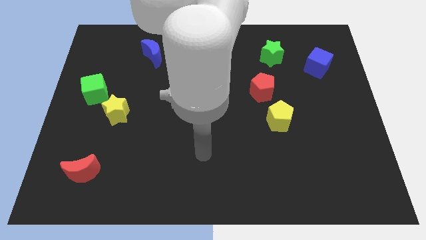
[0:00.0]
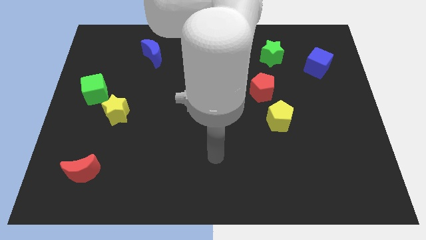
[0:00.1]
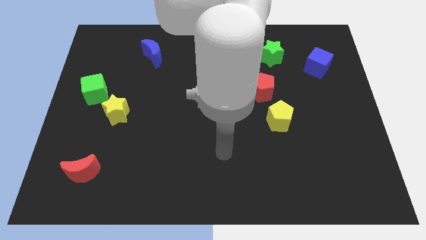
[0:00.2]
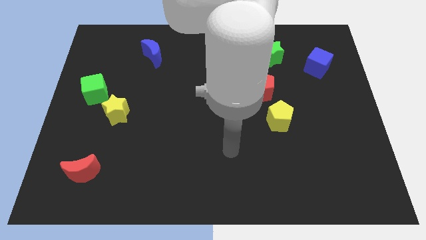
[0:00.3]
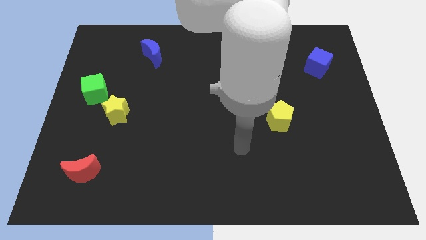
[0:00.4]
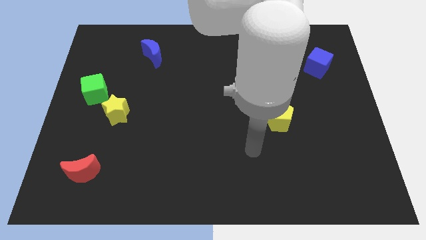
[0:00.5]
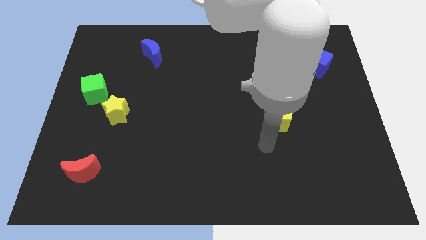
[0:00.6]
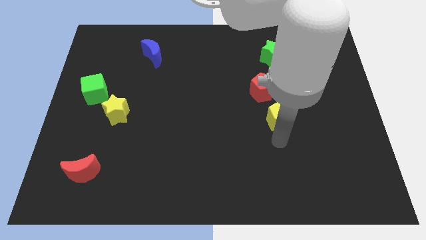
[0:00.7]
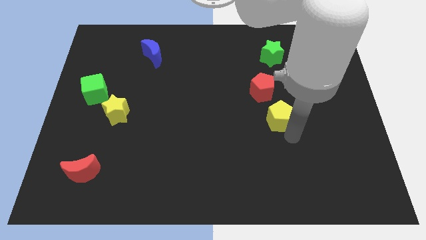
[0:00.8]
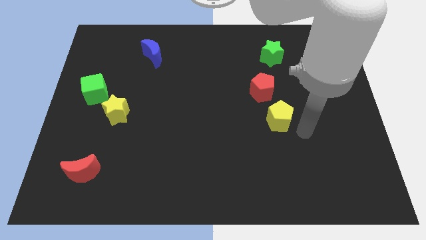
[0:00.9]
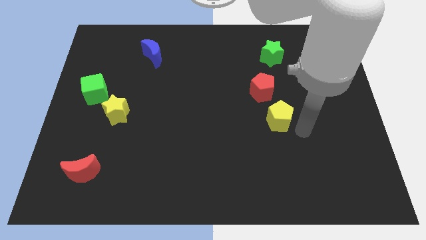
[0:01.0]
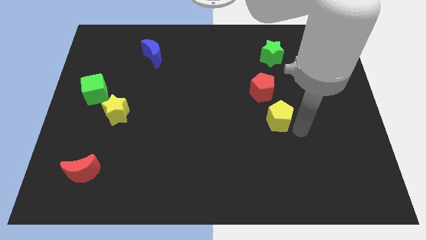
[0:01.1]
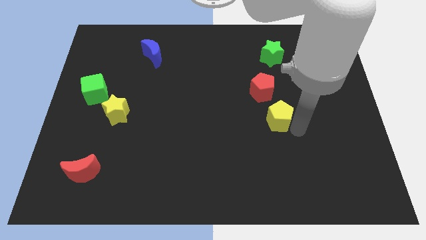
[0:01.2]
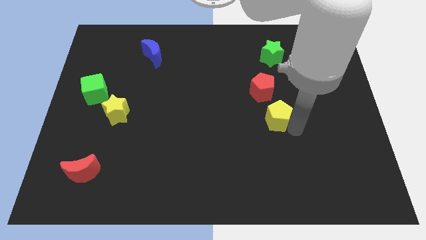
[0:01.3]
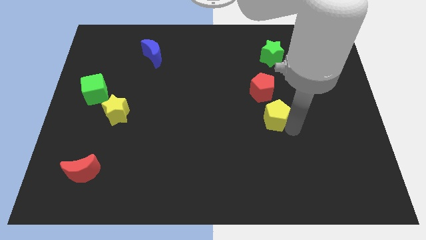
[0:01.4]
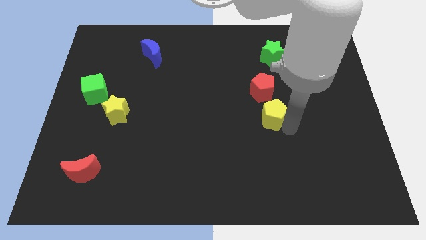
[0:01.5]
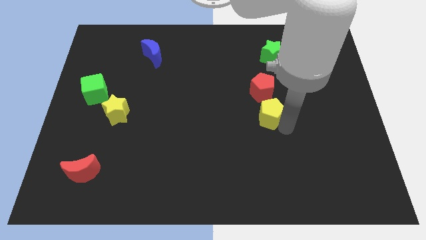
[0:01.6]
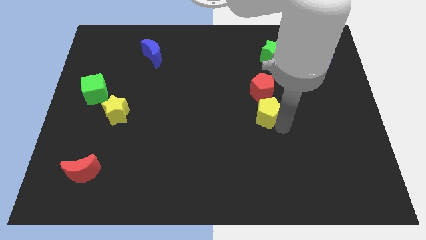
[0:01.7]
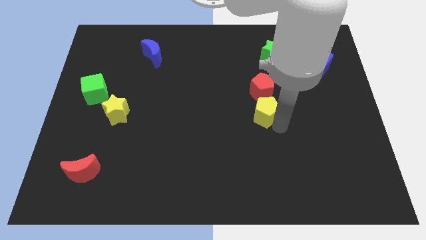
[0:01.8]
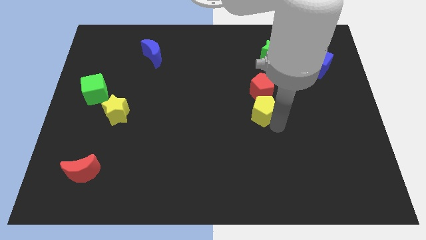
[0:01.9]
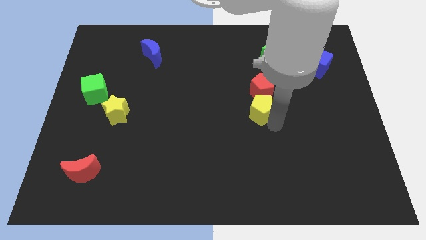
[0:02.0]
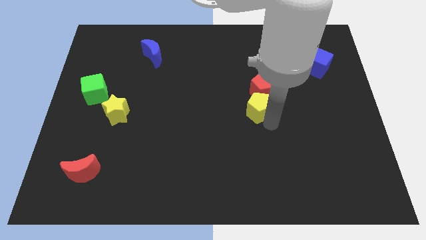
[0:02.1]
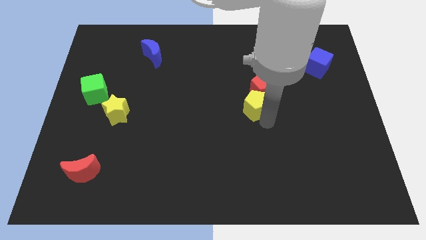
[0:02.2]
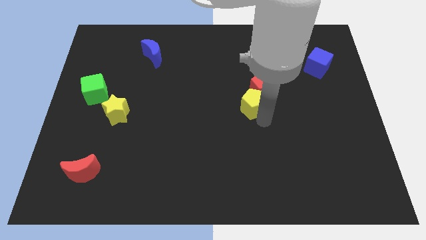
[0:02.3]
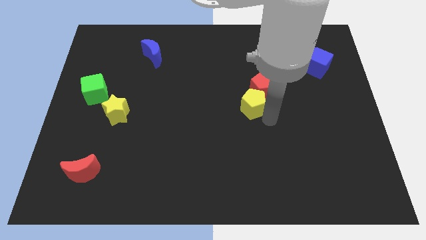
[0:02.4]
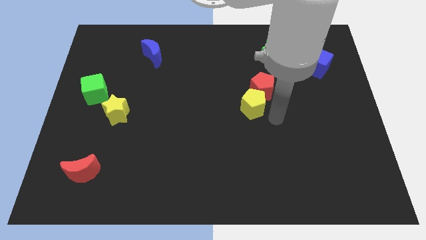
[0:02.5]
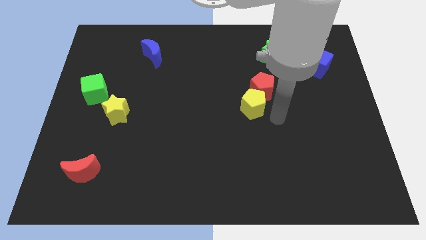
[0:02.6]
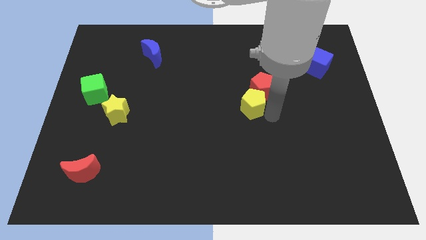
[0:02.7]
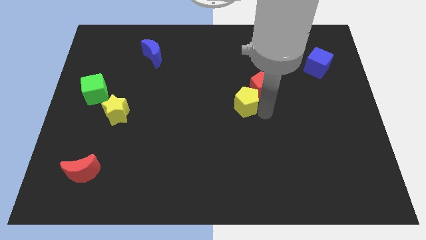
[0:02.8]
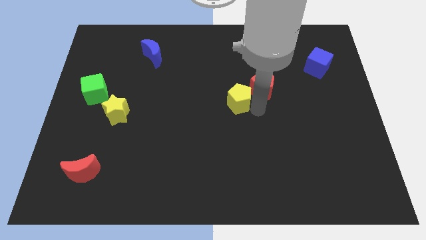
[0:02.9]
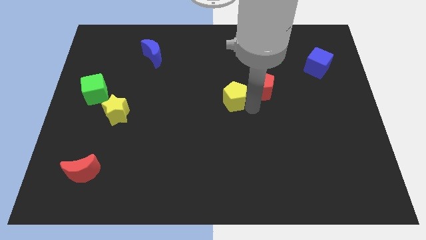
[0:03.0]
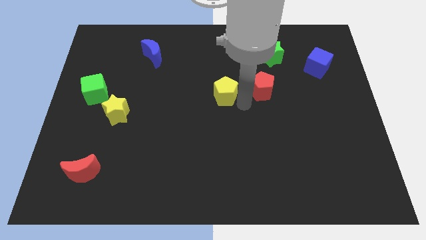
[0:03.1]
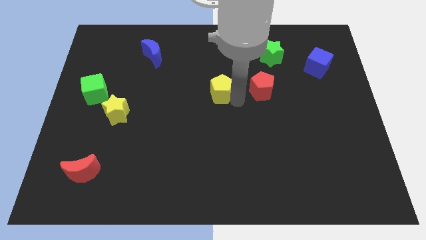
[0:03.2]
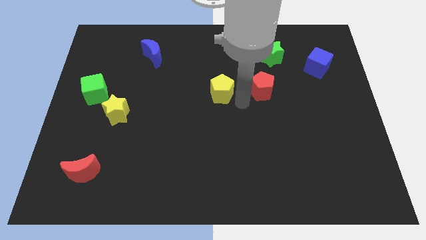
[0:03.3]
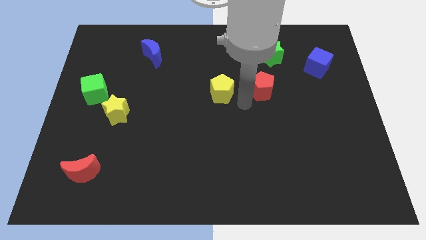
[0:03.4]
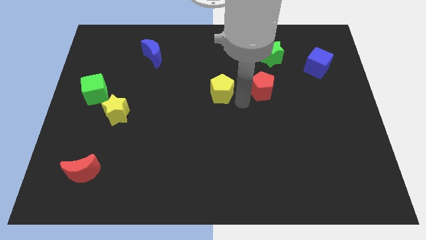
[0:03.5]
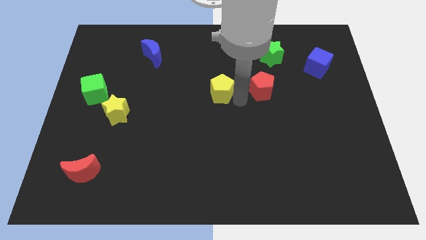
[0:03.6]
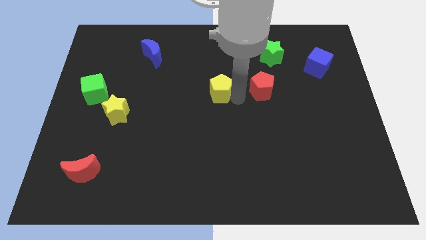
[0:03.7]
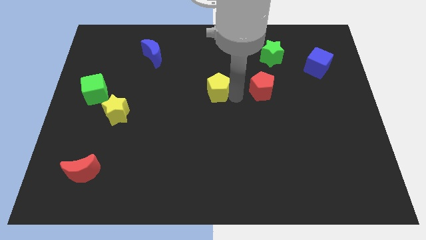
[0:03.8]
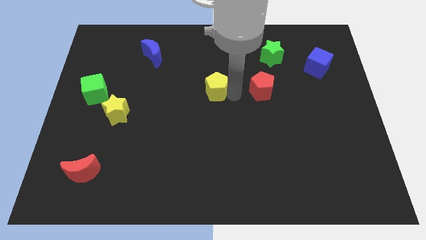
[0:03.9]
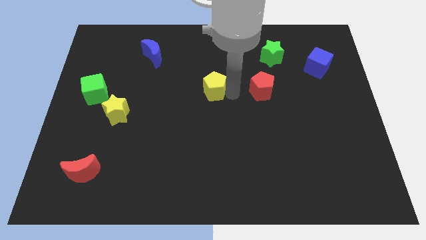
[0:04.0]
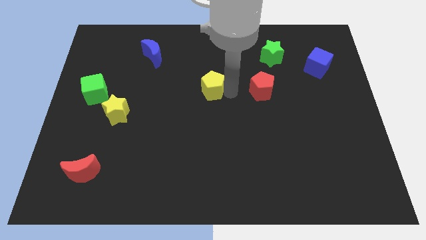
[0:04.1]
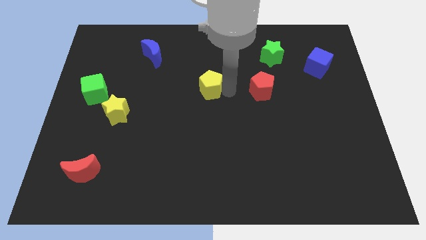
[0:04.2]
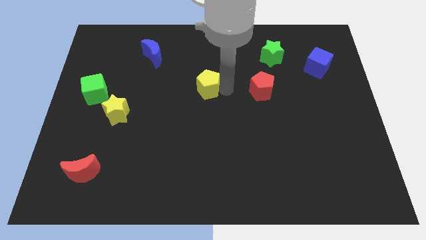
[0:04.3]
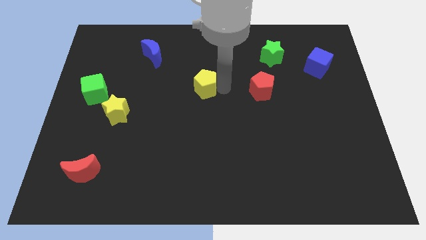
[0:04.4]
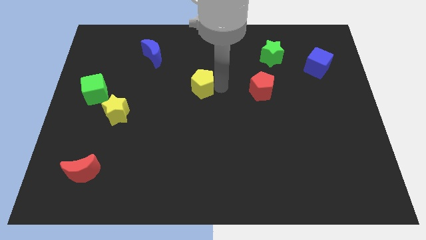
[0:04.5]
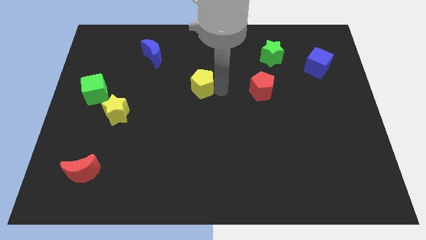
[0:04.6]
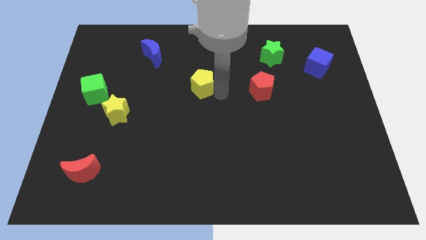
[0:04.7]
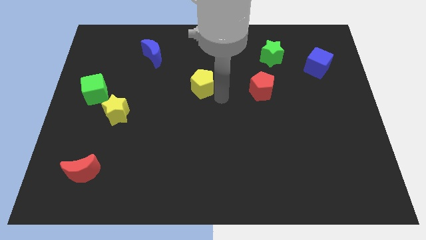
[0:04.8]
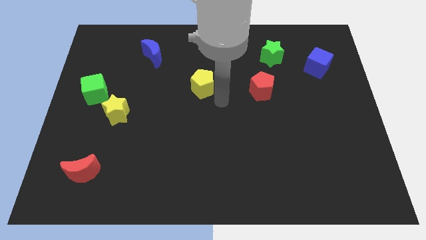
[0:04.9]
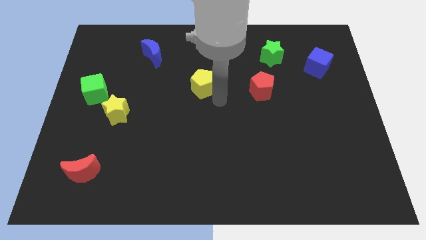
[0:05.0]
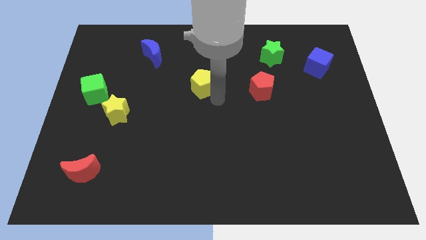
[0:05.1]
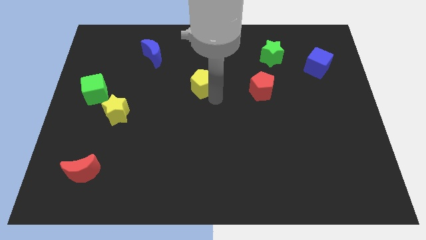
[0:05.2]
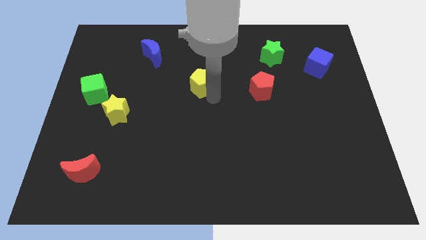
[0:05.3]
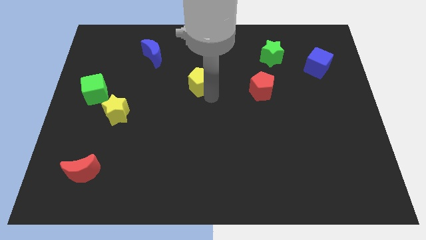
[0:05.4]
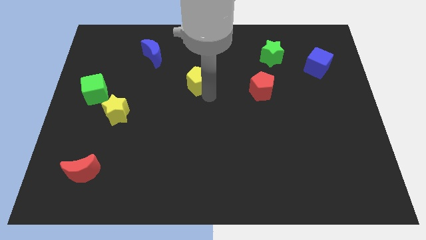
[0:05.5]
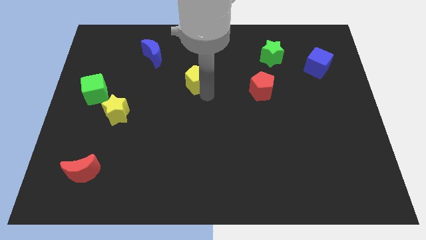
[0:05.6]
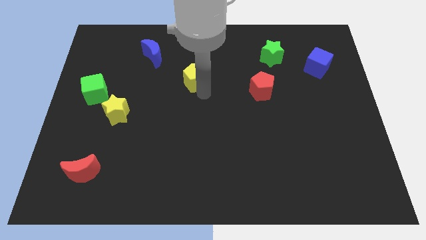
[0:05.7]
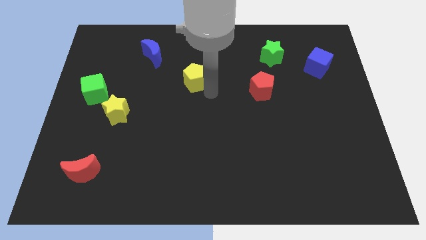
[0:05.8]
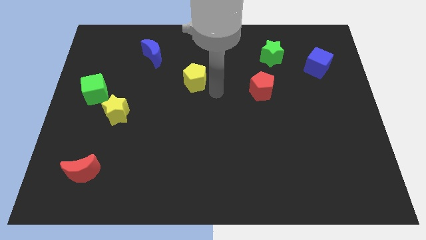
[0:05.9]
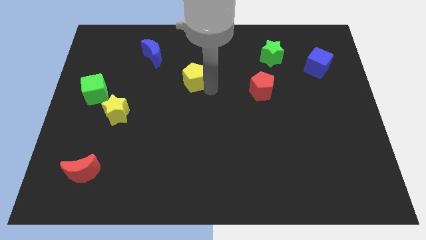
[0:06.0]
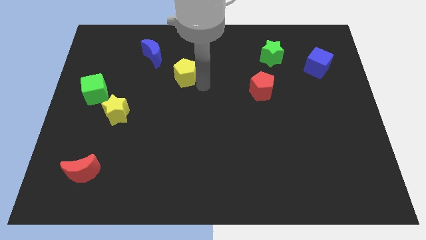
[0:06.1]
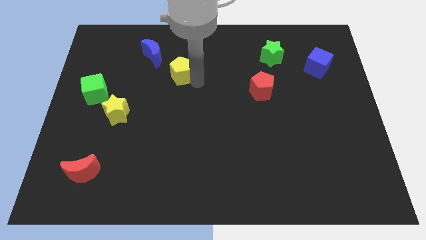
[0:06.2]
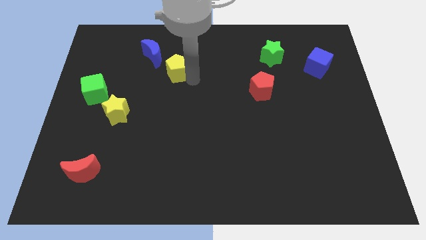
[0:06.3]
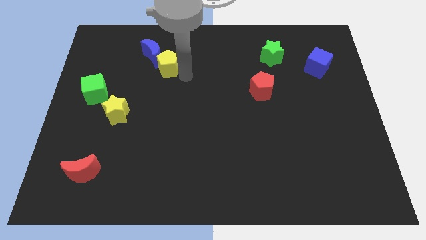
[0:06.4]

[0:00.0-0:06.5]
put the yellow pentagon to the blue moon
